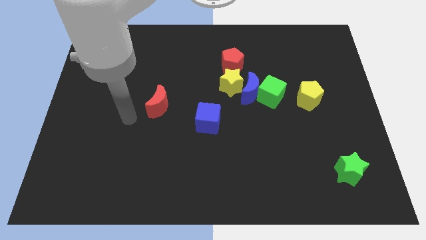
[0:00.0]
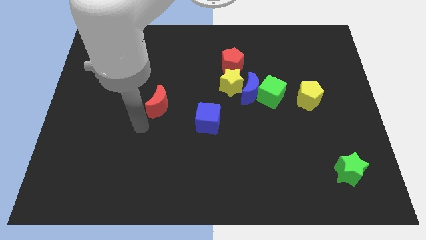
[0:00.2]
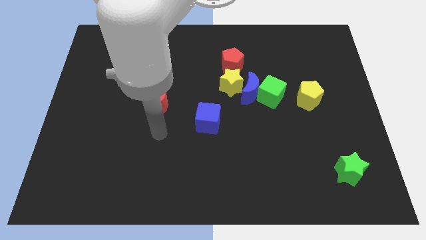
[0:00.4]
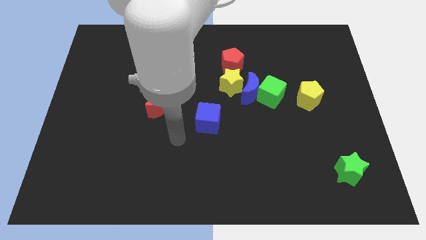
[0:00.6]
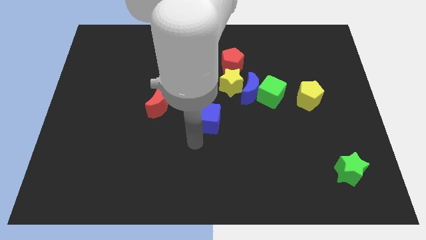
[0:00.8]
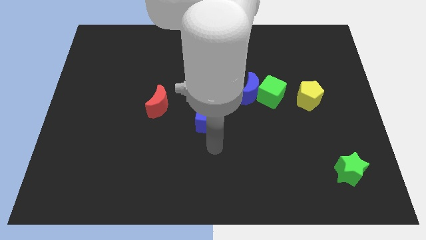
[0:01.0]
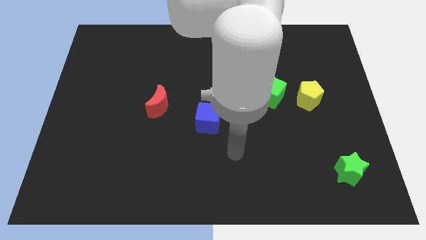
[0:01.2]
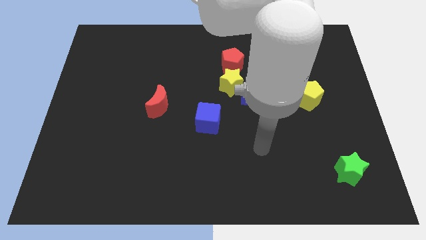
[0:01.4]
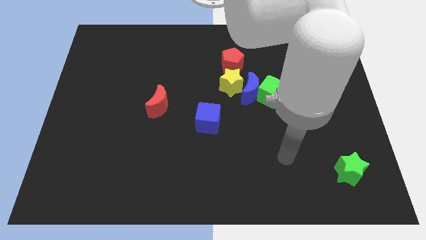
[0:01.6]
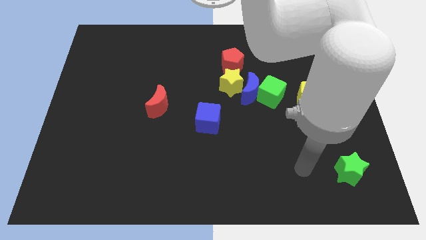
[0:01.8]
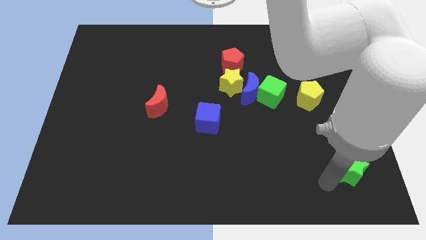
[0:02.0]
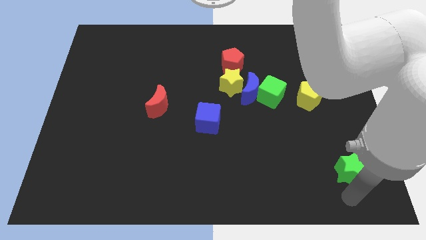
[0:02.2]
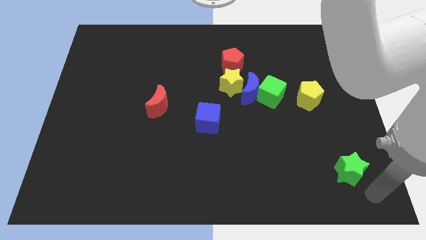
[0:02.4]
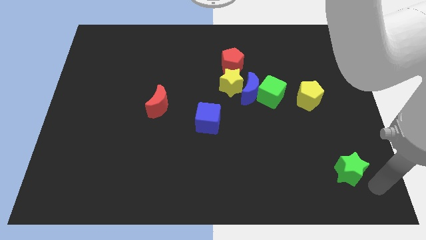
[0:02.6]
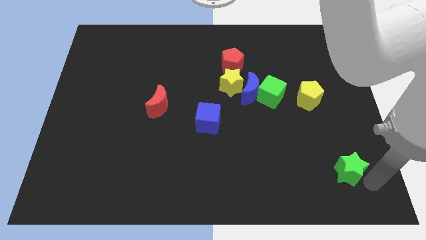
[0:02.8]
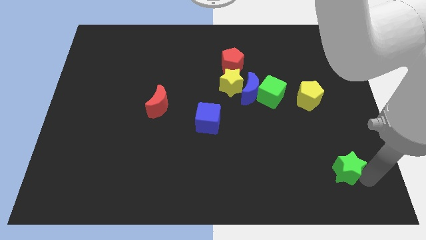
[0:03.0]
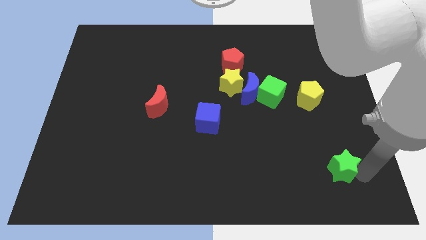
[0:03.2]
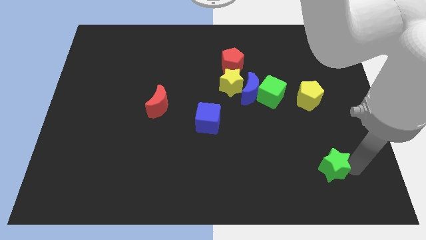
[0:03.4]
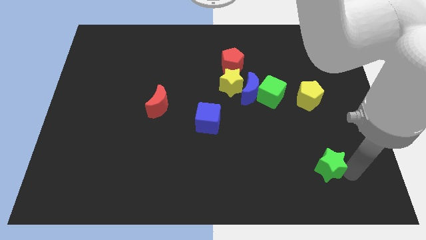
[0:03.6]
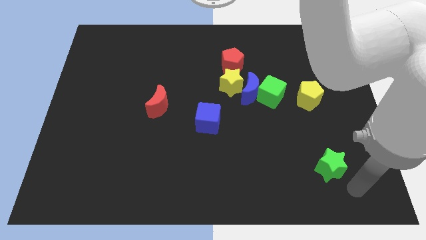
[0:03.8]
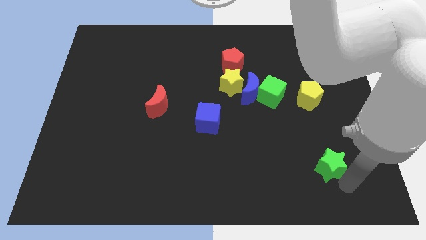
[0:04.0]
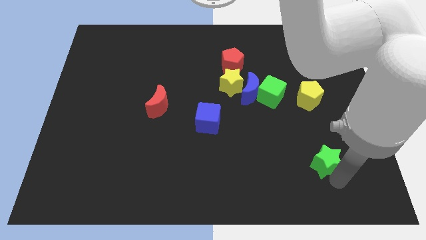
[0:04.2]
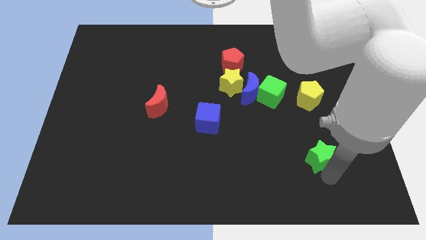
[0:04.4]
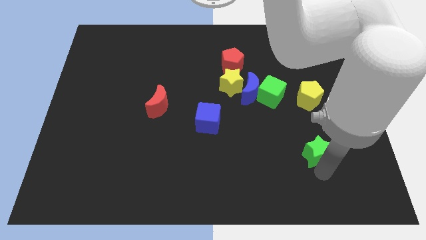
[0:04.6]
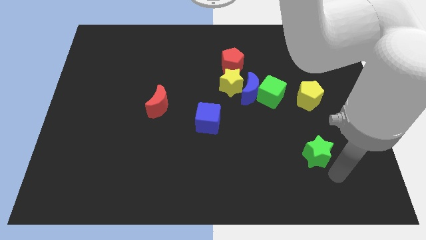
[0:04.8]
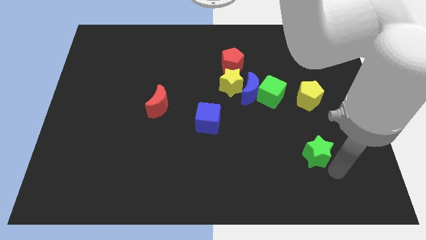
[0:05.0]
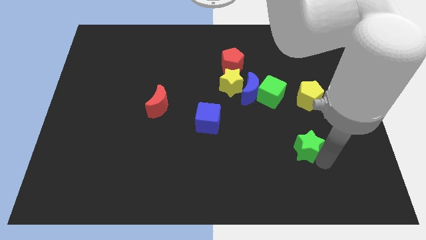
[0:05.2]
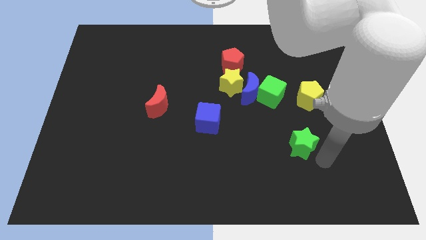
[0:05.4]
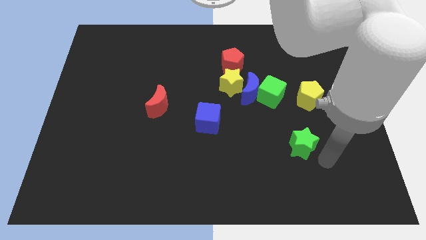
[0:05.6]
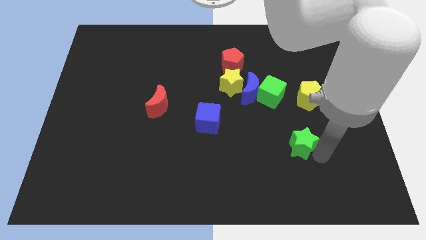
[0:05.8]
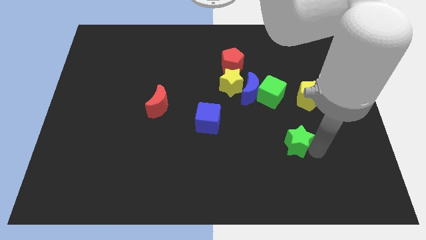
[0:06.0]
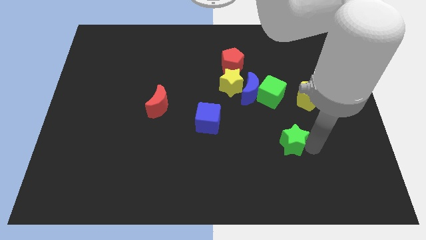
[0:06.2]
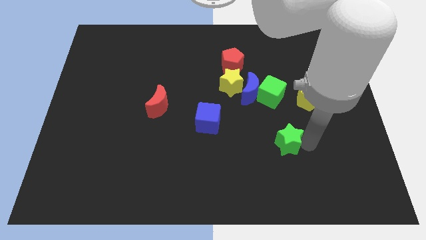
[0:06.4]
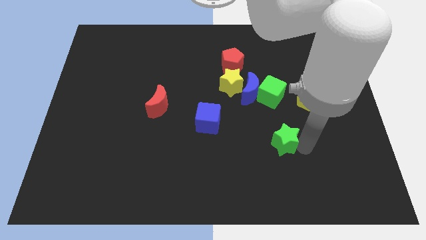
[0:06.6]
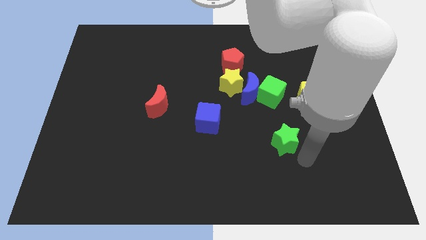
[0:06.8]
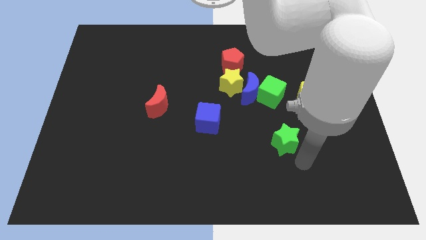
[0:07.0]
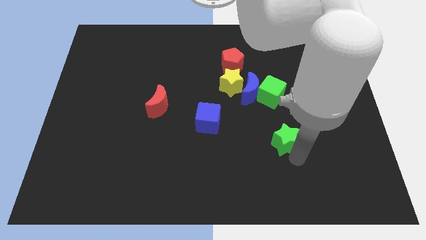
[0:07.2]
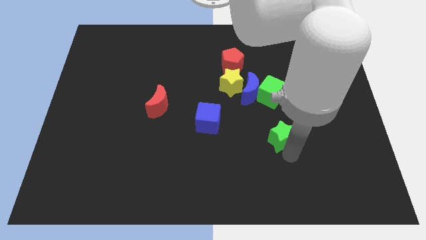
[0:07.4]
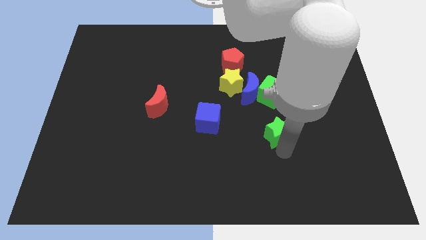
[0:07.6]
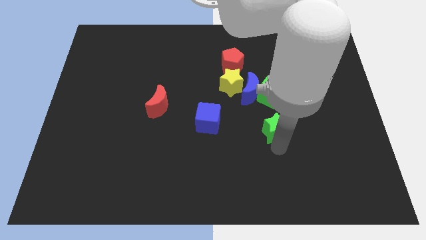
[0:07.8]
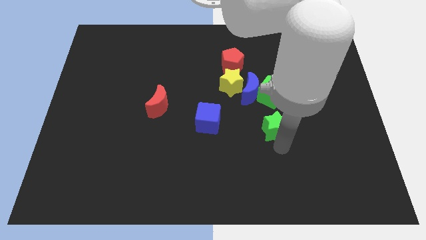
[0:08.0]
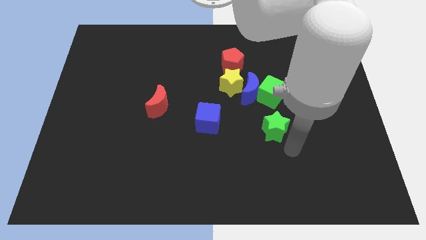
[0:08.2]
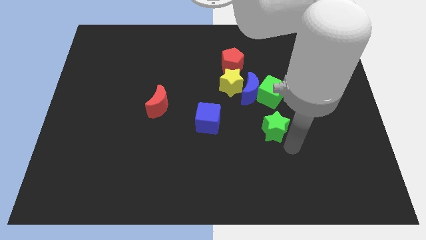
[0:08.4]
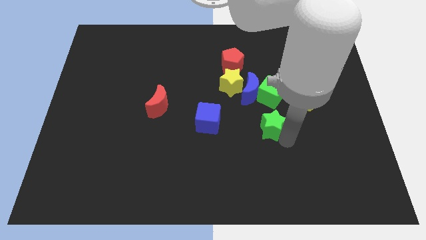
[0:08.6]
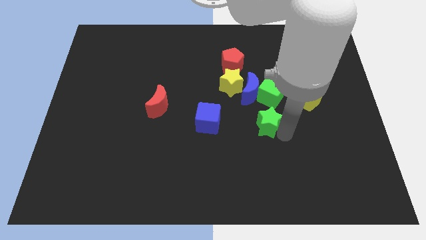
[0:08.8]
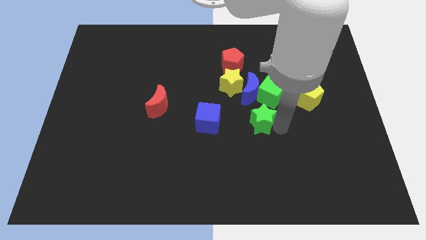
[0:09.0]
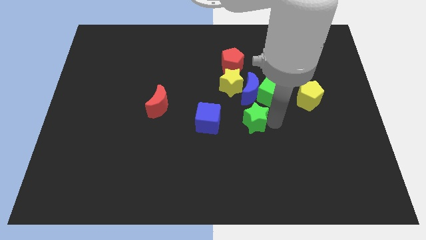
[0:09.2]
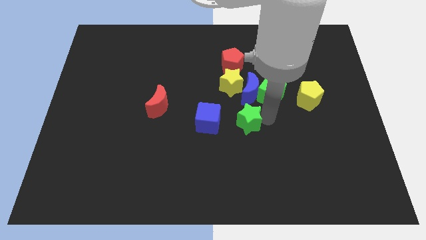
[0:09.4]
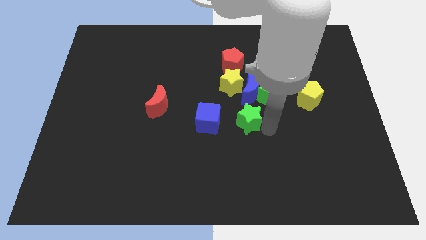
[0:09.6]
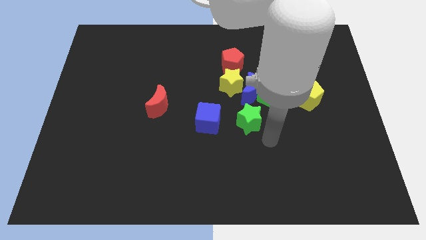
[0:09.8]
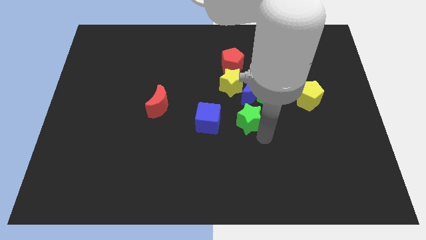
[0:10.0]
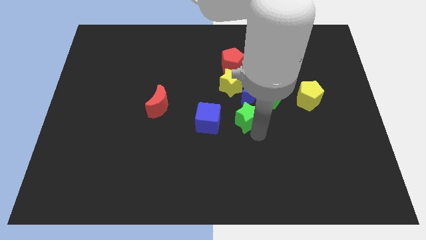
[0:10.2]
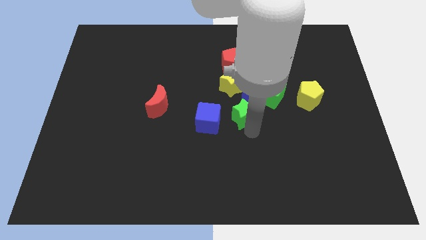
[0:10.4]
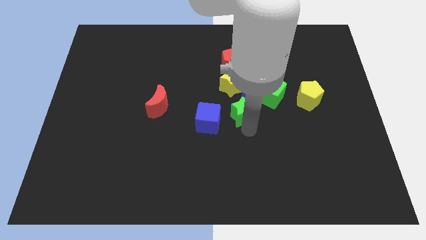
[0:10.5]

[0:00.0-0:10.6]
slide the green star diagonally up and to the right of the blue cube

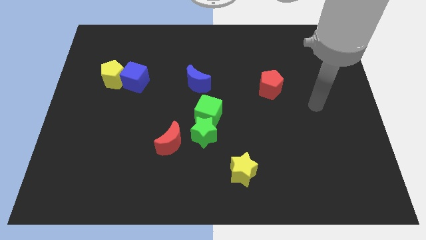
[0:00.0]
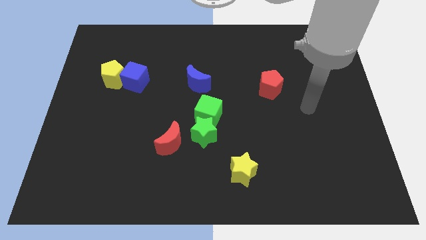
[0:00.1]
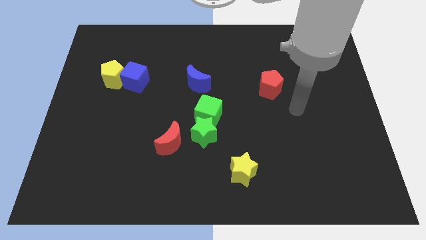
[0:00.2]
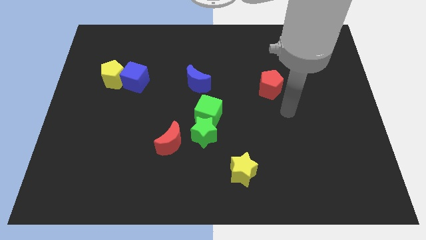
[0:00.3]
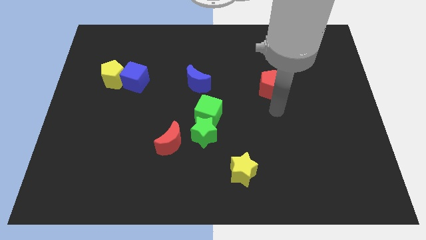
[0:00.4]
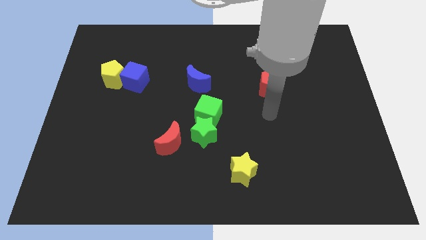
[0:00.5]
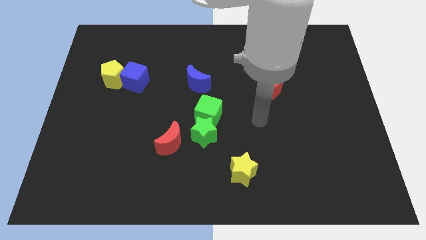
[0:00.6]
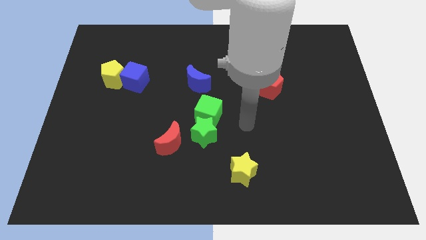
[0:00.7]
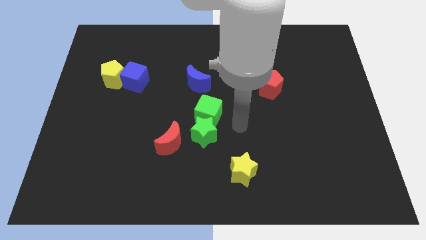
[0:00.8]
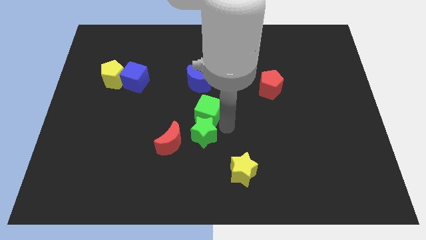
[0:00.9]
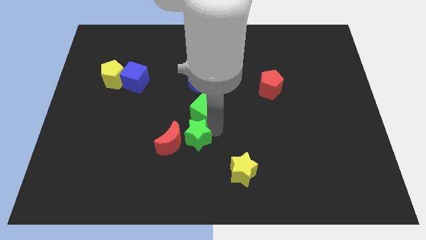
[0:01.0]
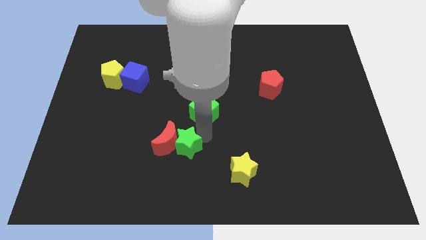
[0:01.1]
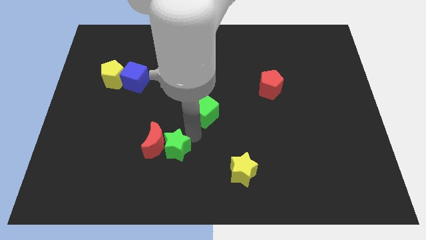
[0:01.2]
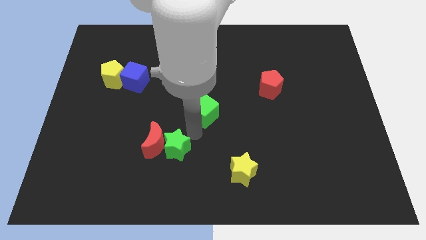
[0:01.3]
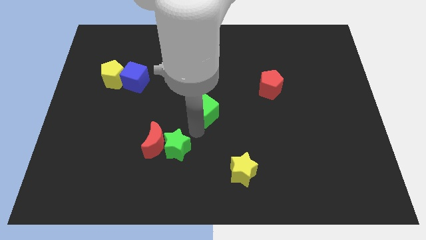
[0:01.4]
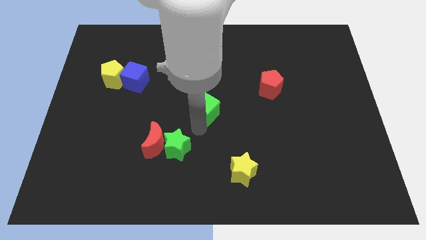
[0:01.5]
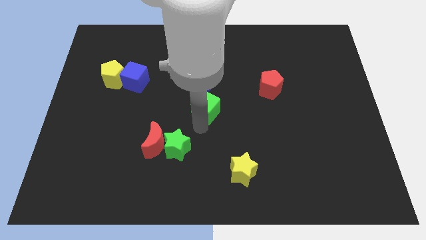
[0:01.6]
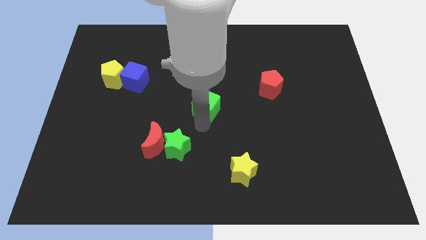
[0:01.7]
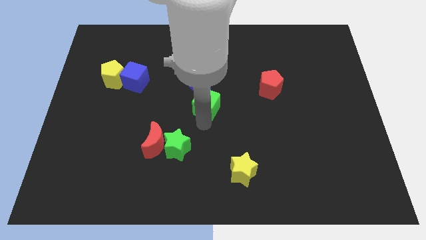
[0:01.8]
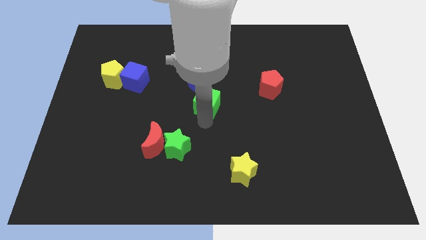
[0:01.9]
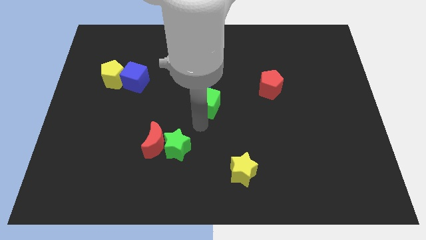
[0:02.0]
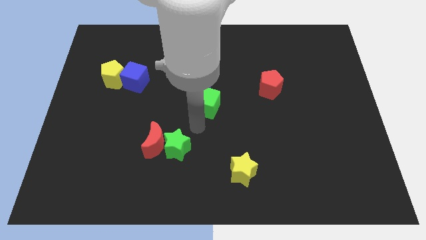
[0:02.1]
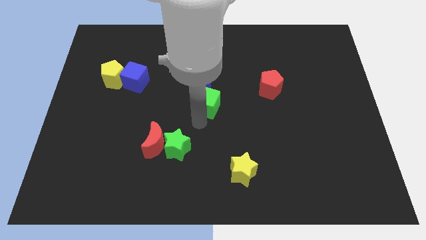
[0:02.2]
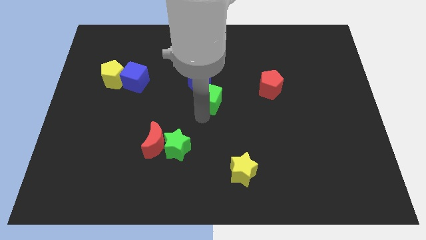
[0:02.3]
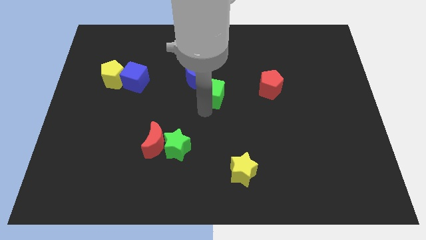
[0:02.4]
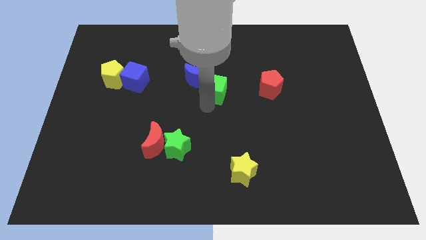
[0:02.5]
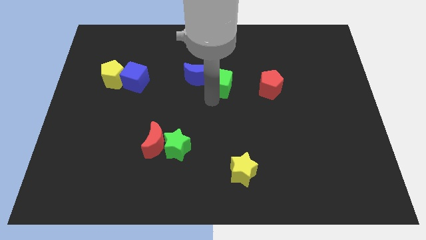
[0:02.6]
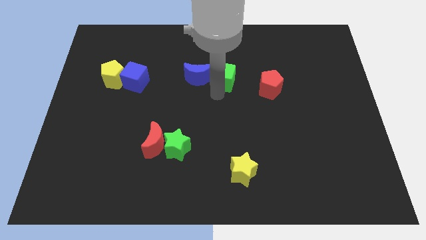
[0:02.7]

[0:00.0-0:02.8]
slide the green cube to the top right side of the blue moon
